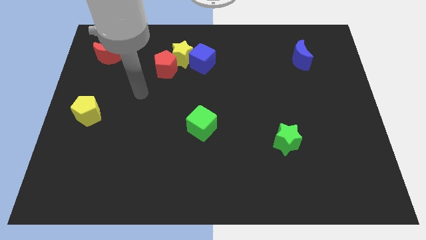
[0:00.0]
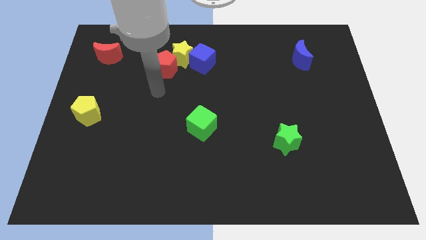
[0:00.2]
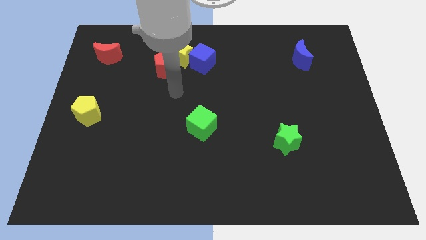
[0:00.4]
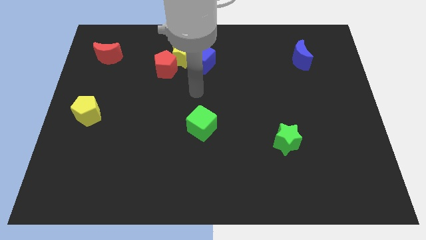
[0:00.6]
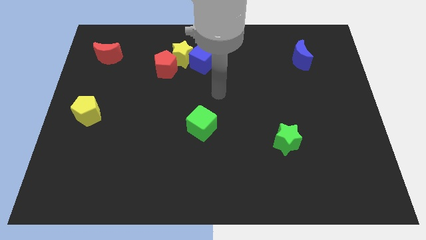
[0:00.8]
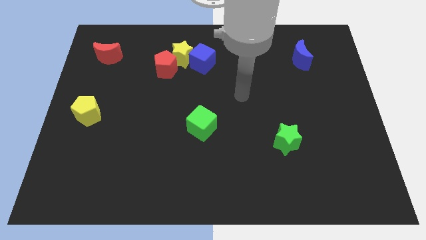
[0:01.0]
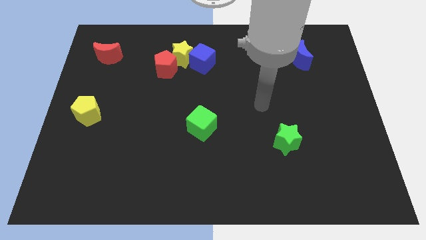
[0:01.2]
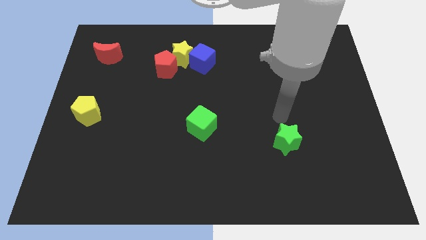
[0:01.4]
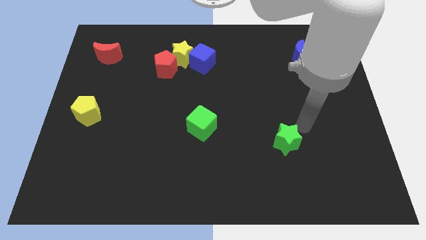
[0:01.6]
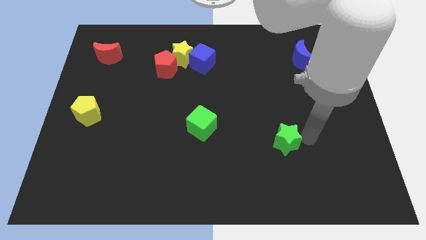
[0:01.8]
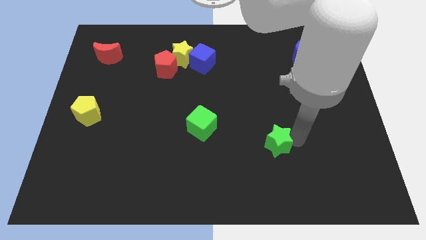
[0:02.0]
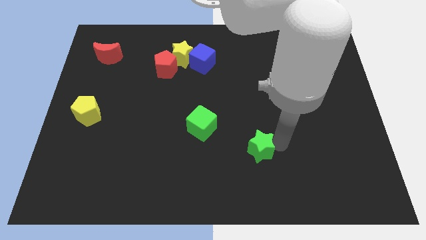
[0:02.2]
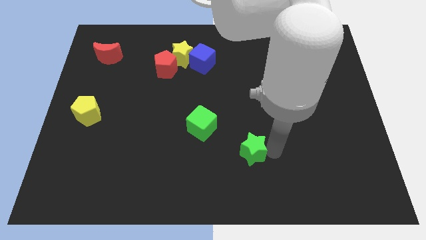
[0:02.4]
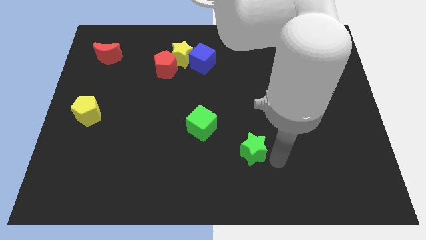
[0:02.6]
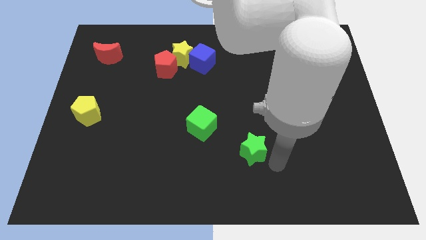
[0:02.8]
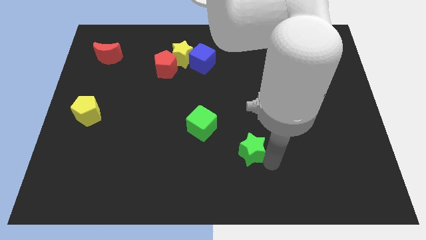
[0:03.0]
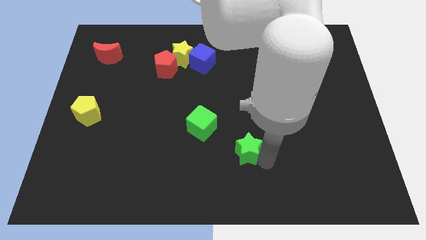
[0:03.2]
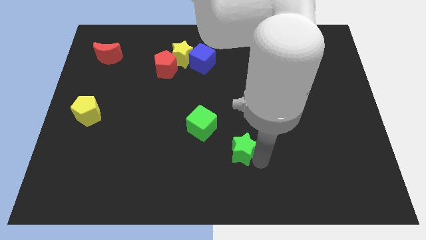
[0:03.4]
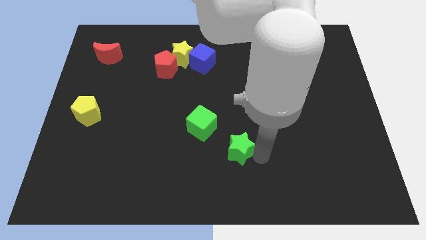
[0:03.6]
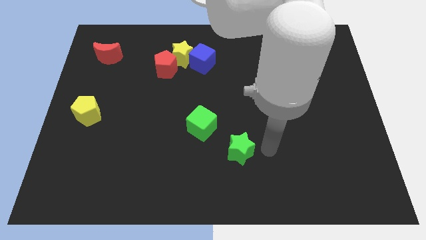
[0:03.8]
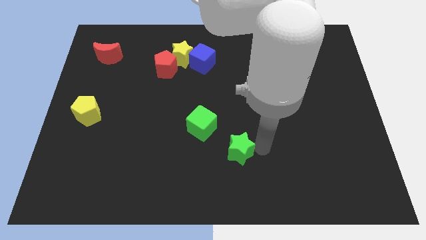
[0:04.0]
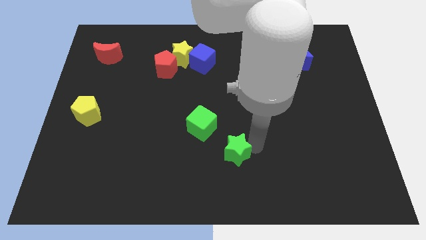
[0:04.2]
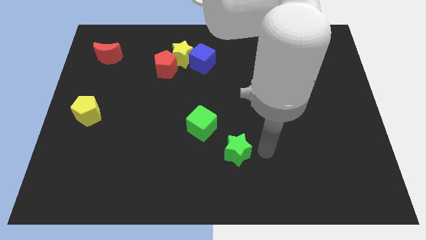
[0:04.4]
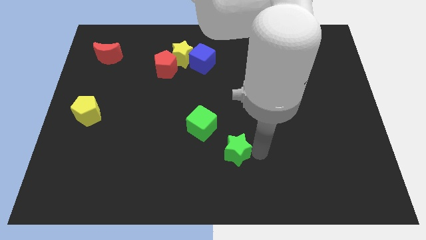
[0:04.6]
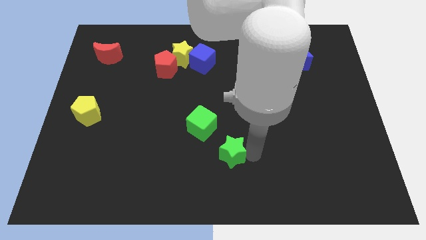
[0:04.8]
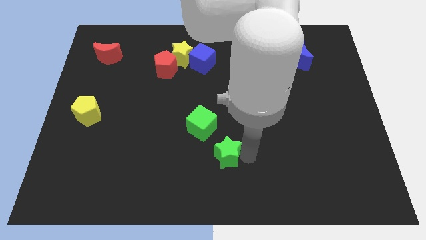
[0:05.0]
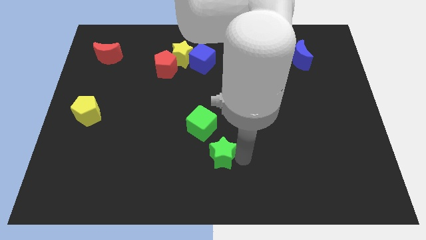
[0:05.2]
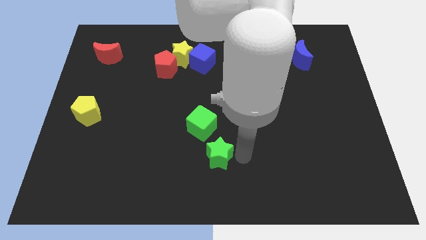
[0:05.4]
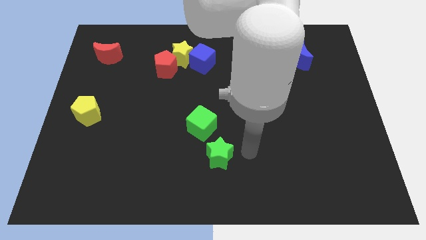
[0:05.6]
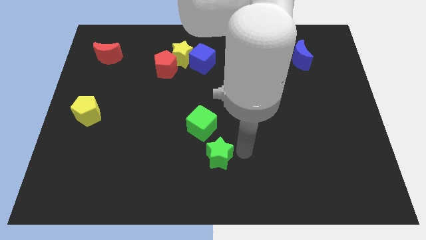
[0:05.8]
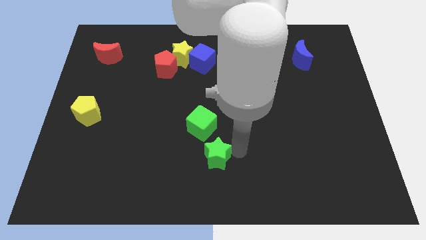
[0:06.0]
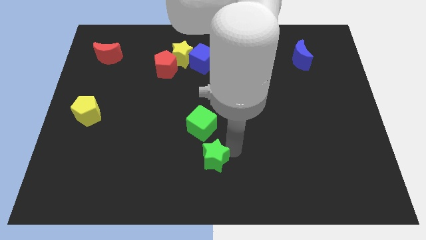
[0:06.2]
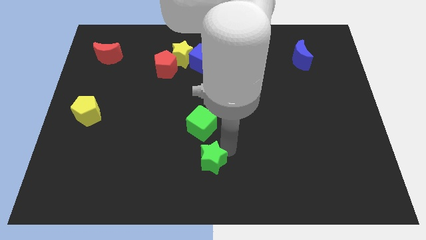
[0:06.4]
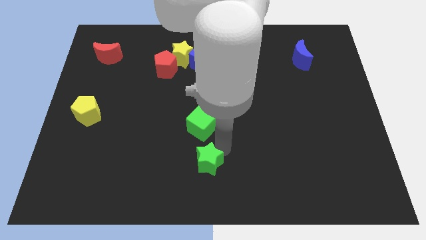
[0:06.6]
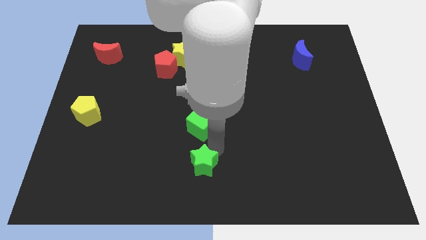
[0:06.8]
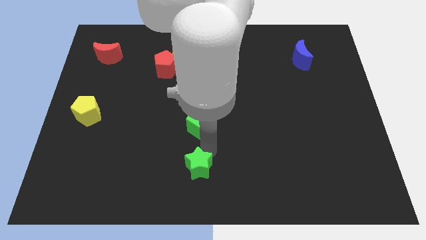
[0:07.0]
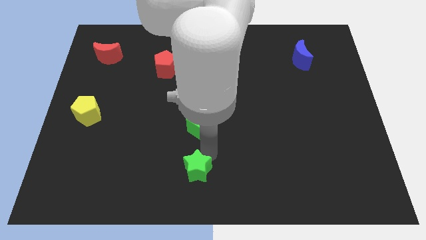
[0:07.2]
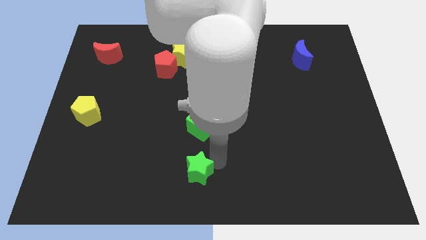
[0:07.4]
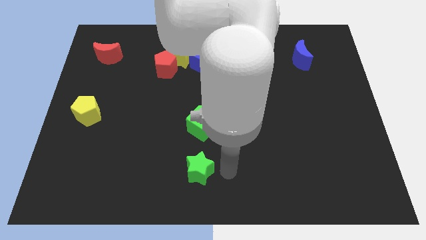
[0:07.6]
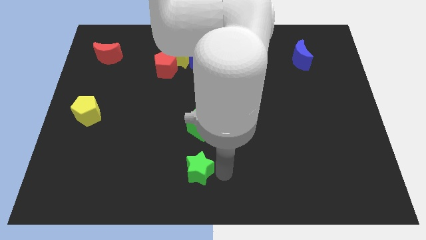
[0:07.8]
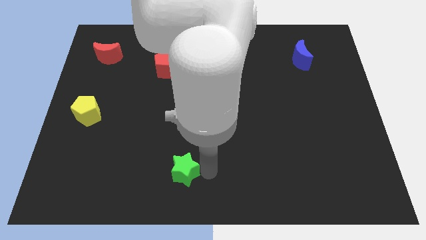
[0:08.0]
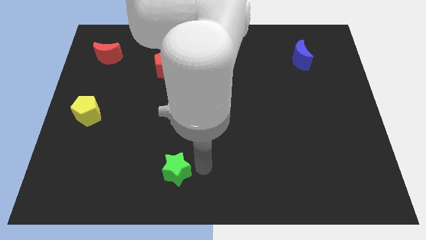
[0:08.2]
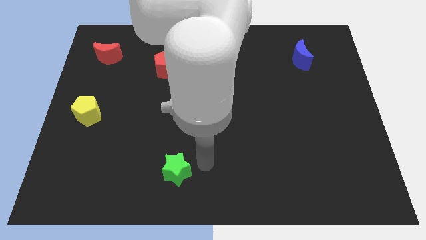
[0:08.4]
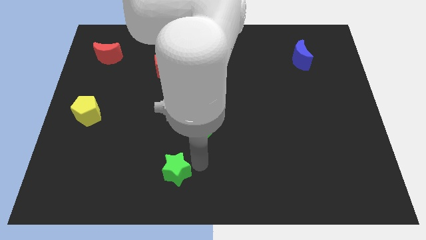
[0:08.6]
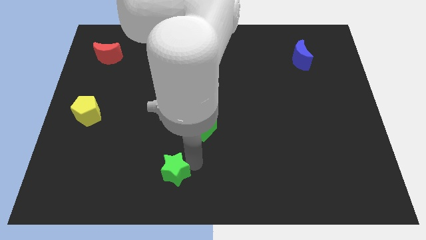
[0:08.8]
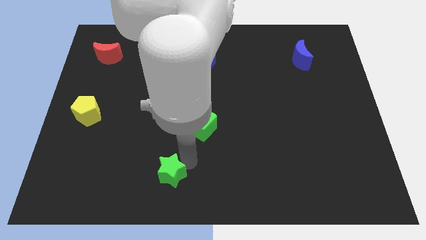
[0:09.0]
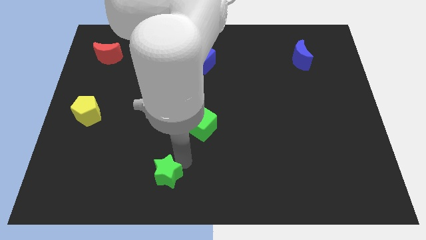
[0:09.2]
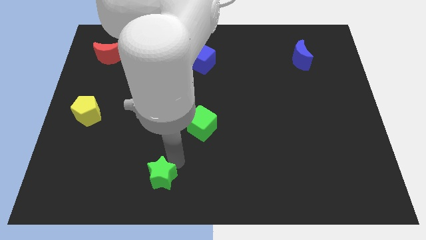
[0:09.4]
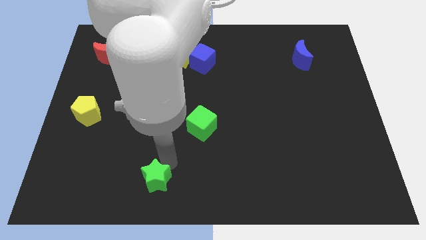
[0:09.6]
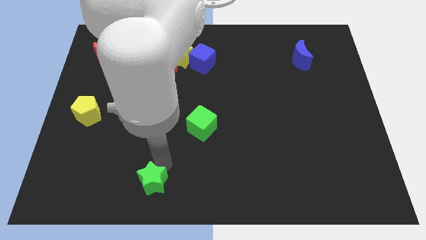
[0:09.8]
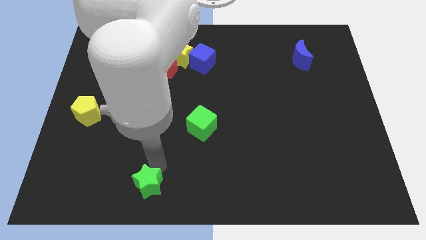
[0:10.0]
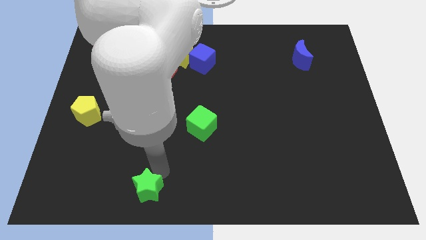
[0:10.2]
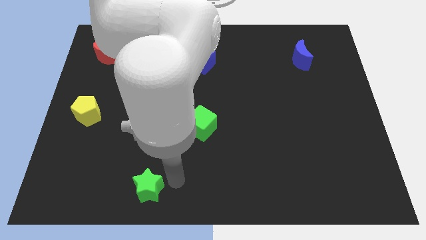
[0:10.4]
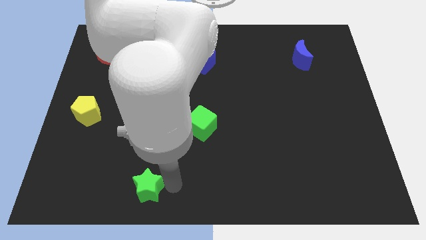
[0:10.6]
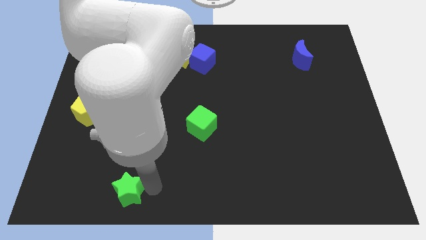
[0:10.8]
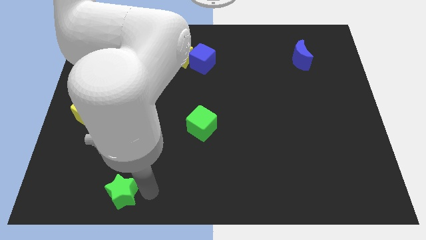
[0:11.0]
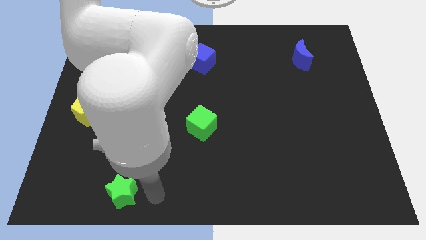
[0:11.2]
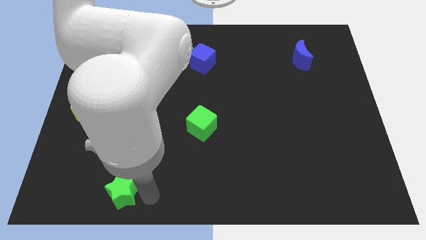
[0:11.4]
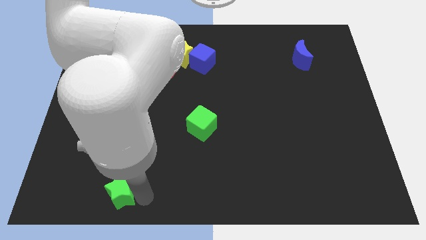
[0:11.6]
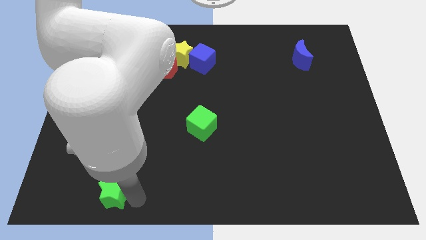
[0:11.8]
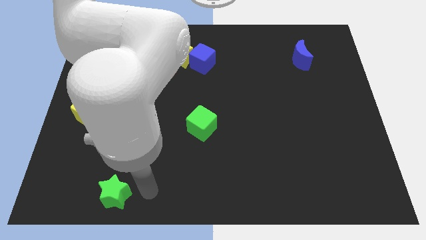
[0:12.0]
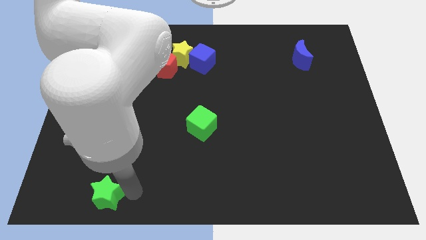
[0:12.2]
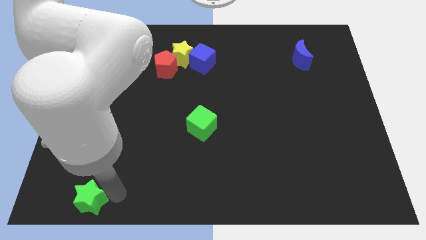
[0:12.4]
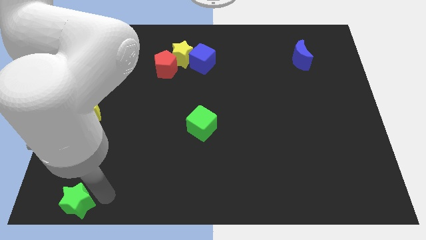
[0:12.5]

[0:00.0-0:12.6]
slide the green star to the lower left corner
